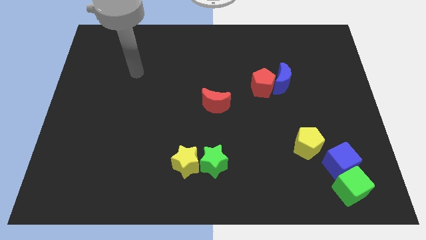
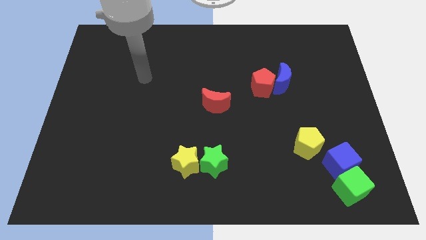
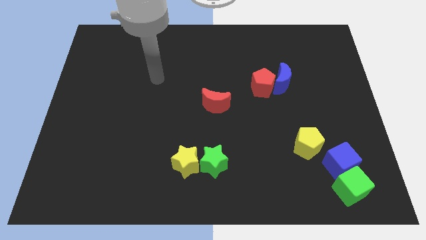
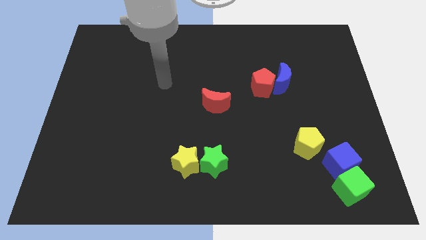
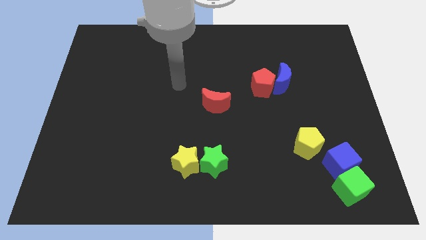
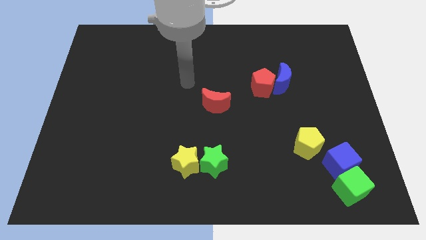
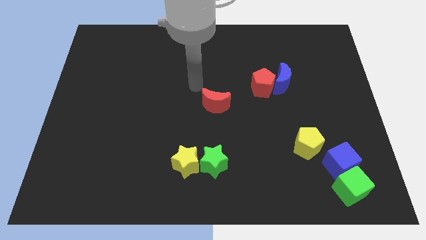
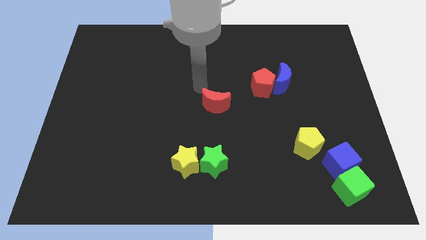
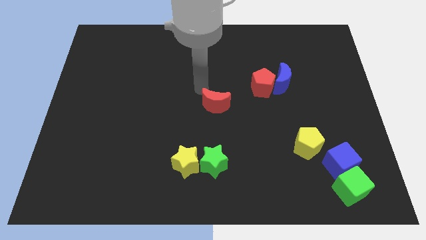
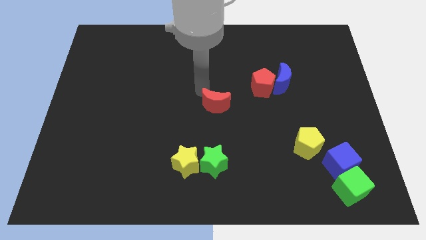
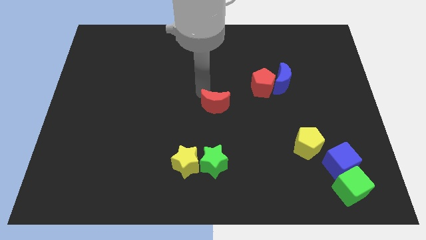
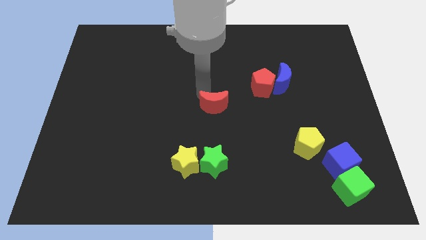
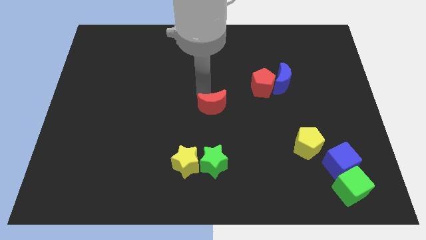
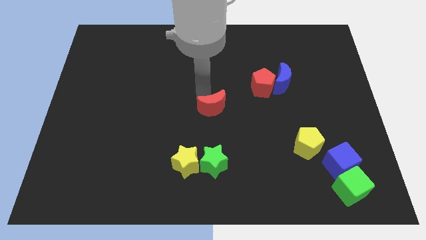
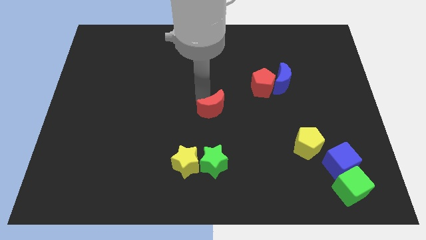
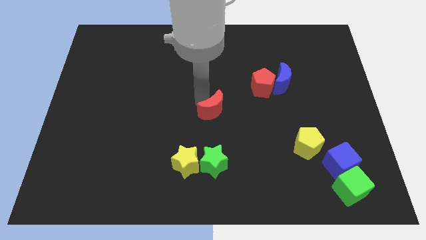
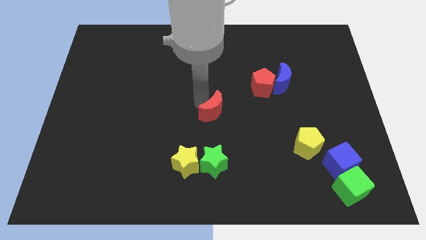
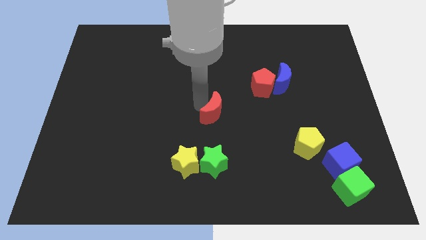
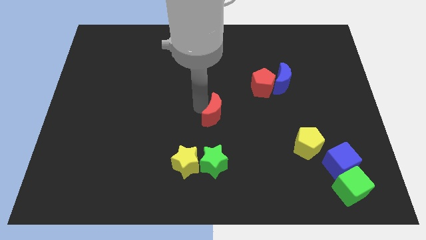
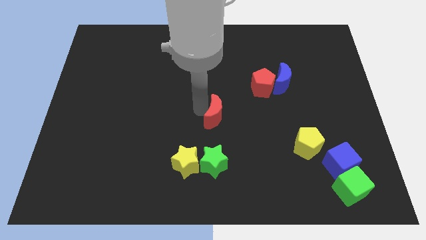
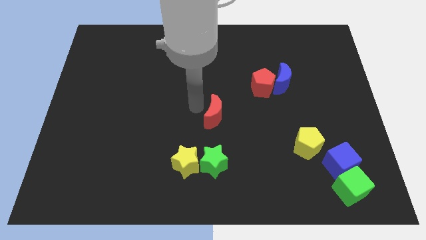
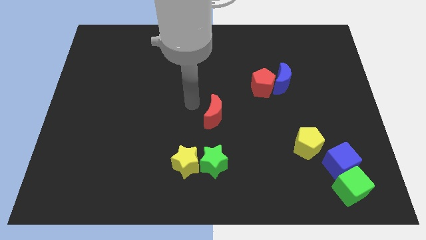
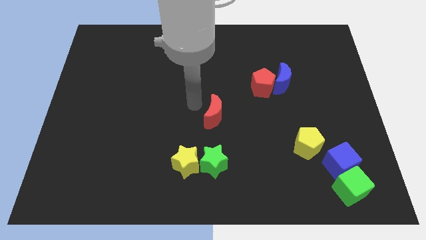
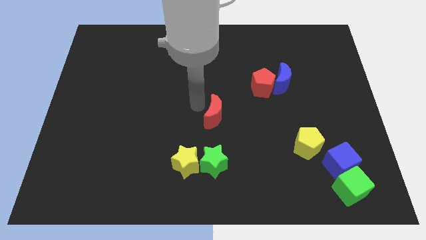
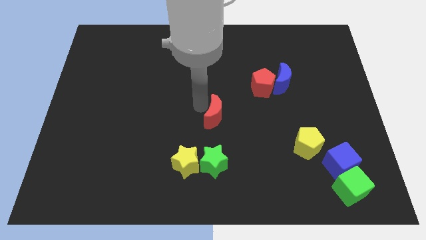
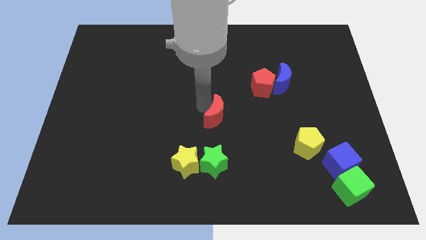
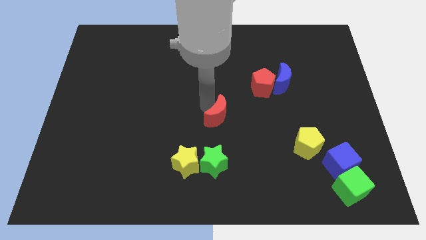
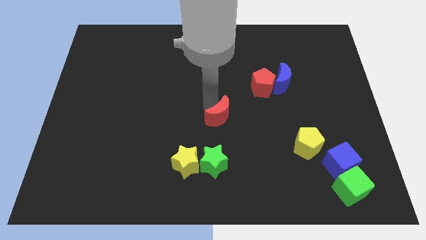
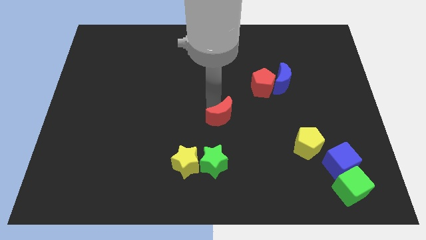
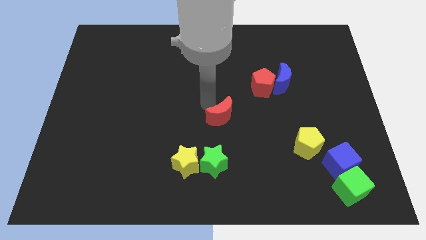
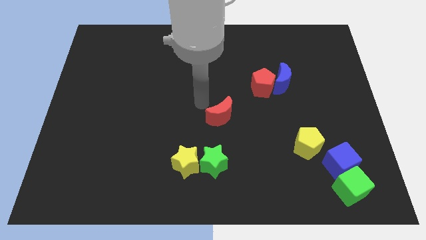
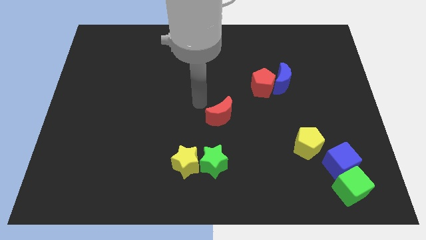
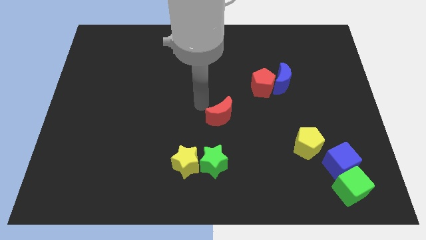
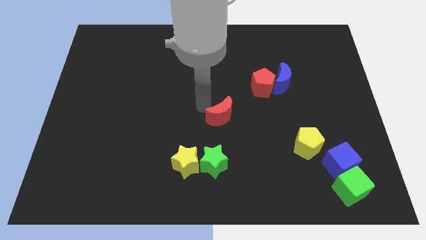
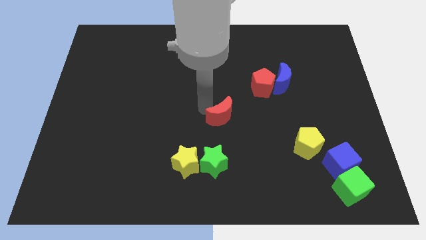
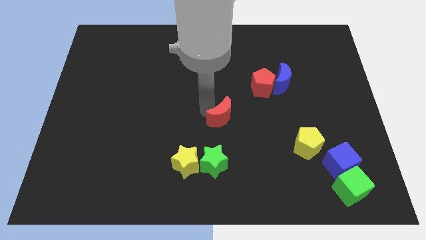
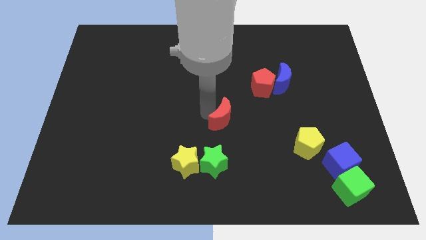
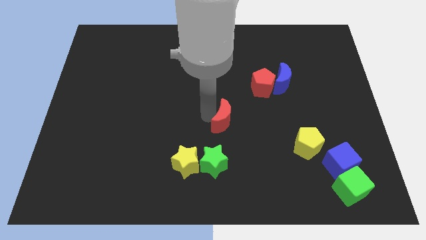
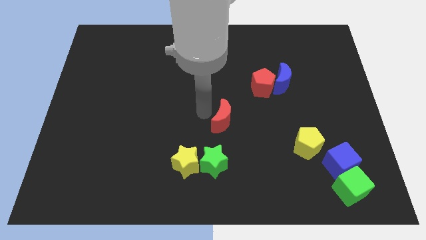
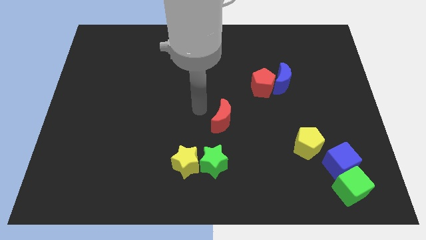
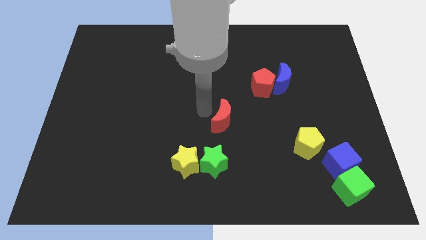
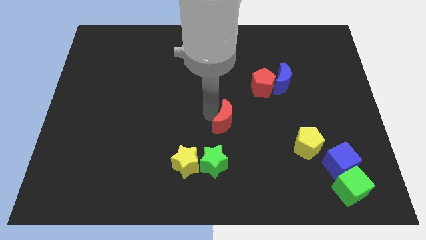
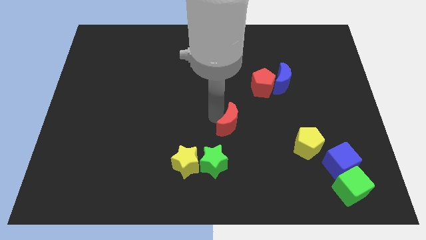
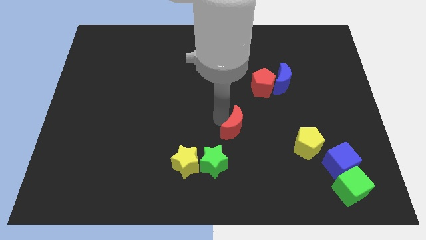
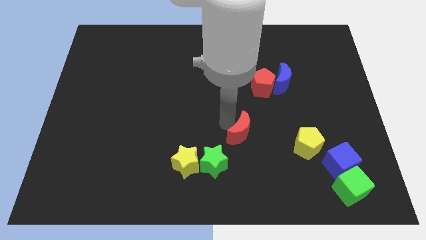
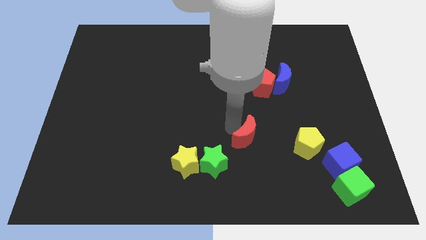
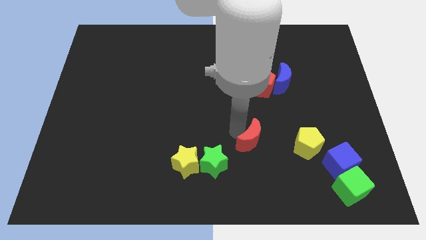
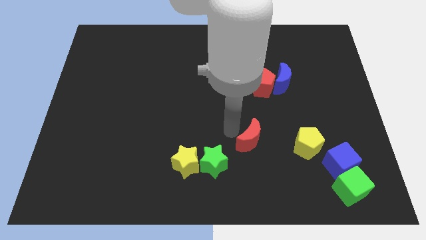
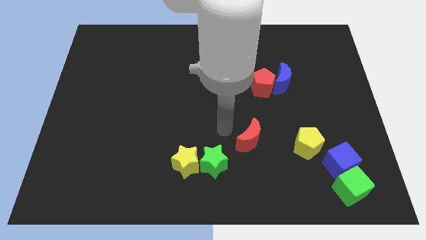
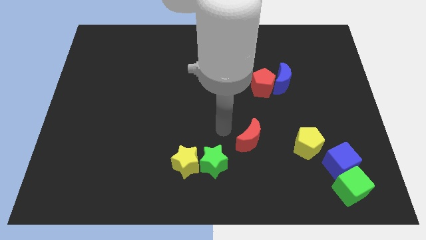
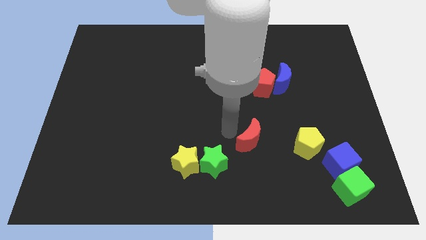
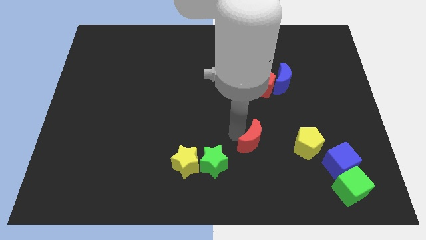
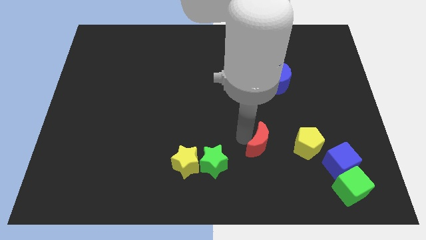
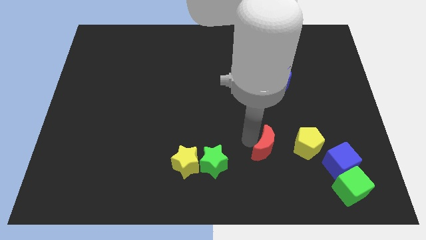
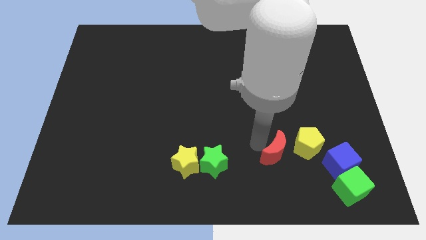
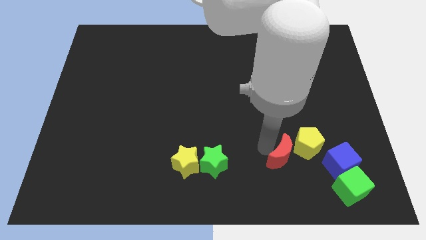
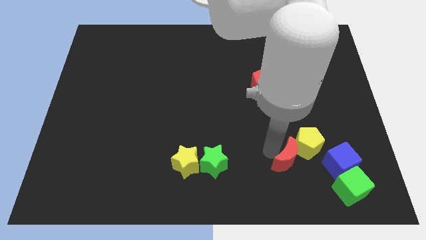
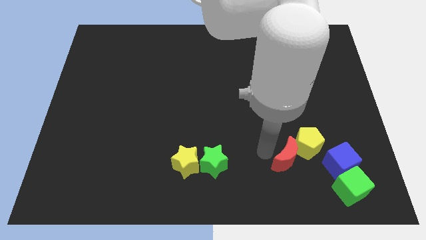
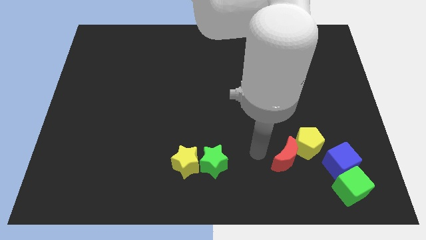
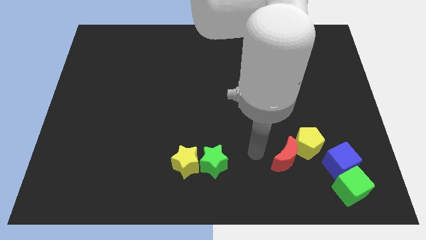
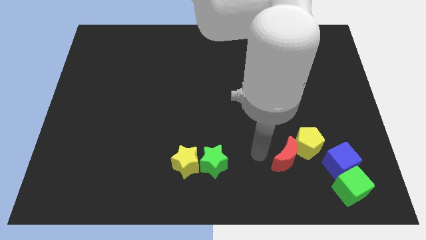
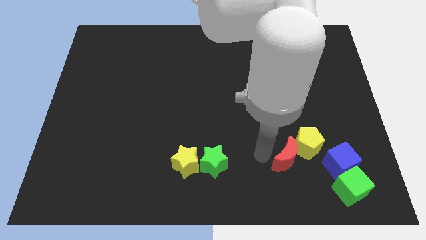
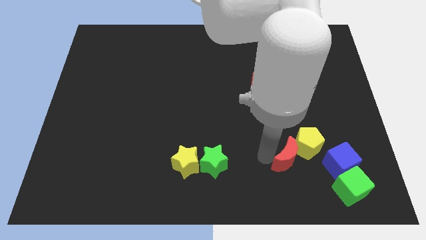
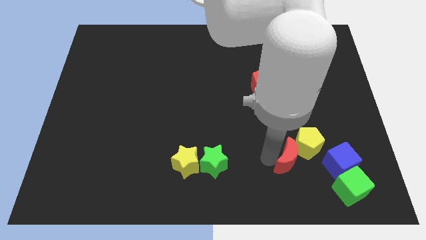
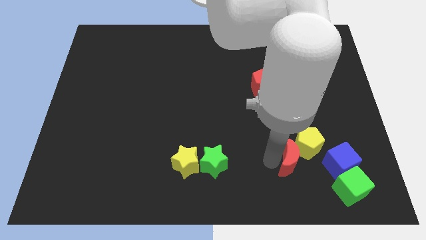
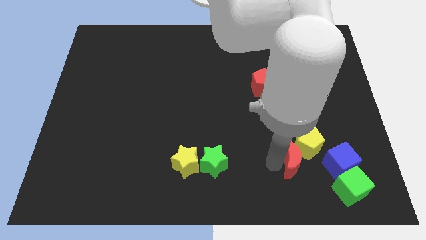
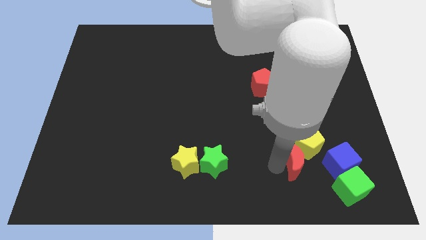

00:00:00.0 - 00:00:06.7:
slide the red moon diagonally up and to the left of the green cube

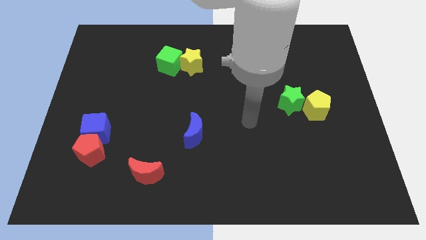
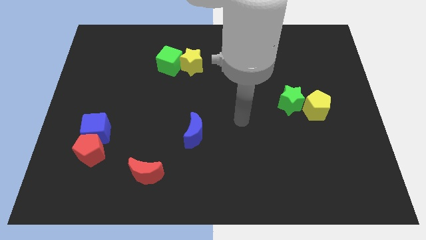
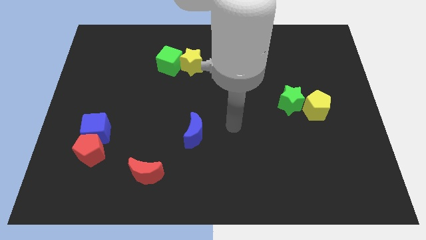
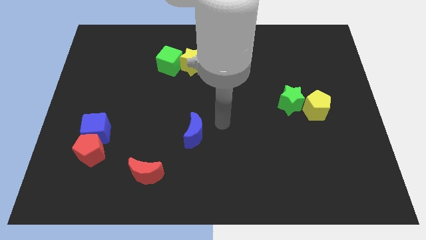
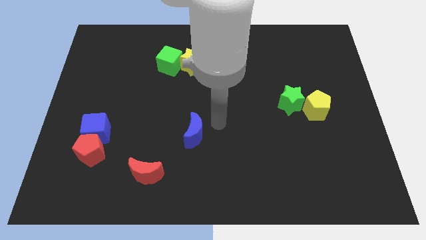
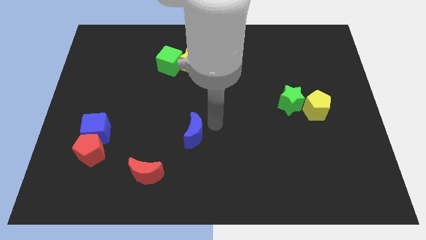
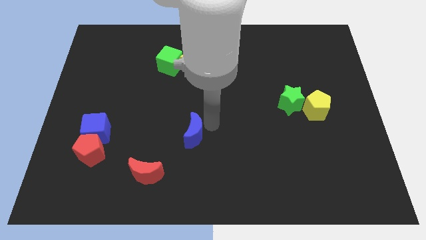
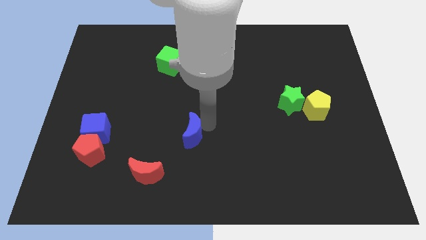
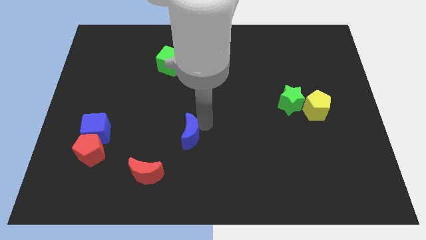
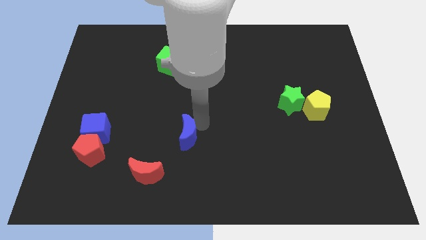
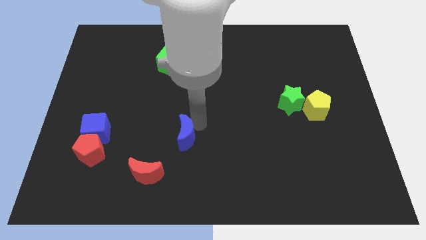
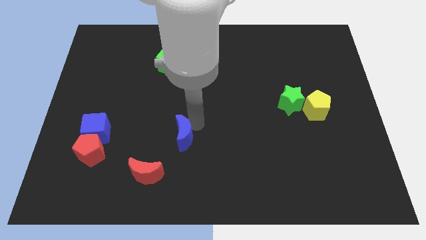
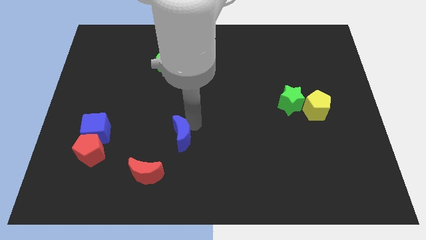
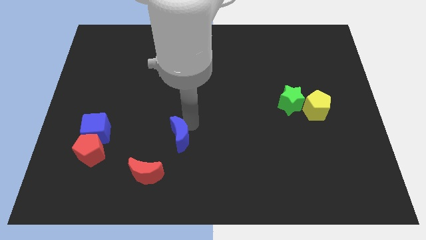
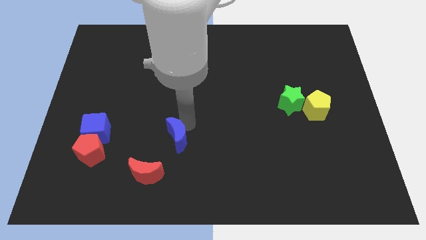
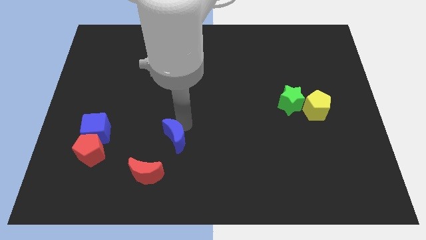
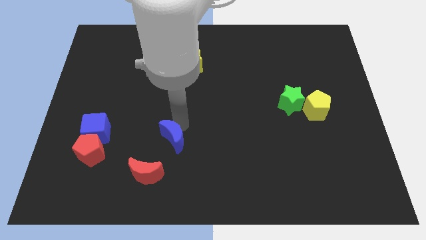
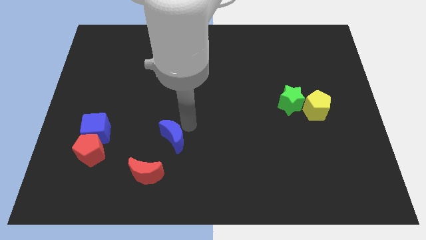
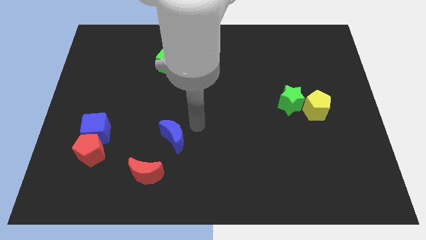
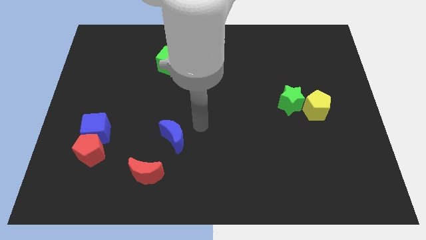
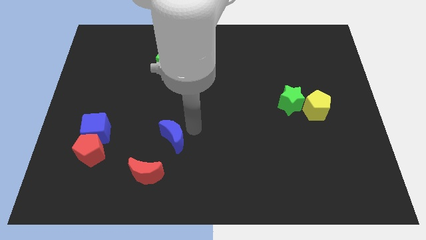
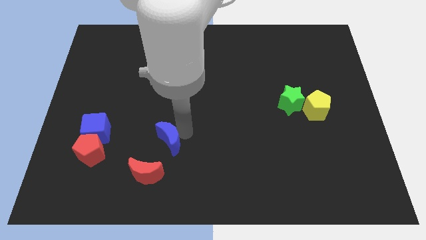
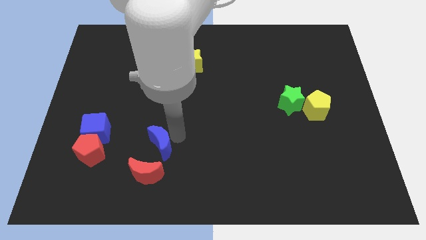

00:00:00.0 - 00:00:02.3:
move the blue moon right of the red pentagon
